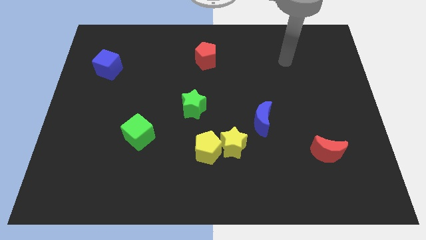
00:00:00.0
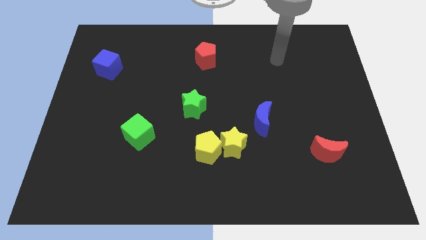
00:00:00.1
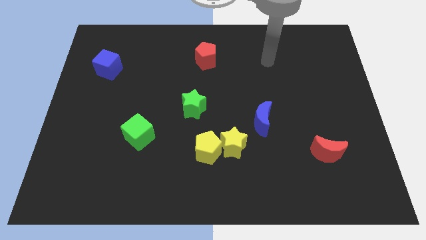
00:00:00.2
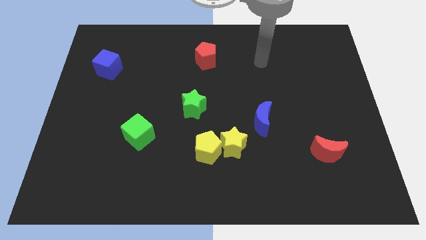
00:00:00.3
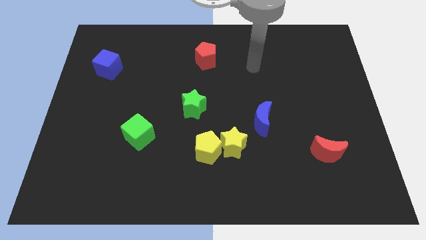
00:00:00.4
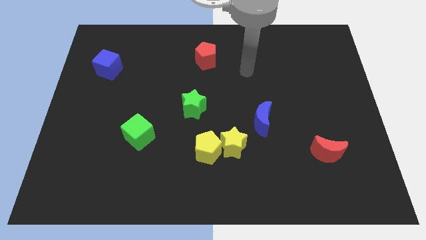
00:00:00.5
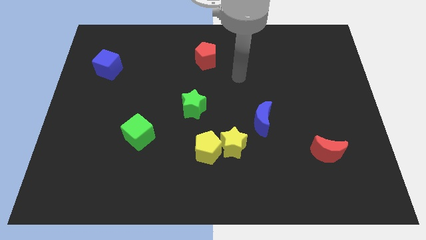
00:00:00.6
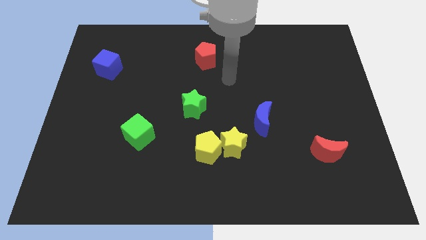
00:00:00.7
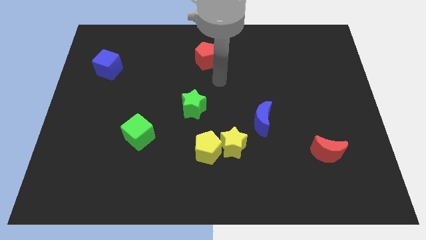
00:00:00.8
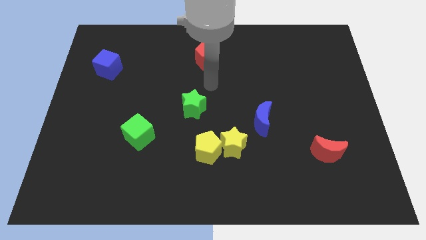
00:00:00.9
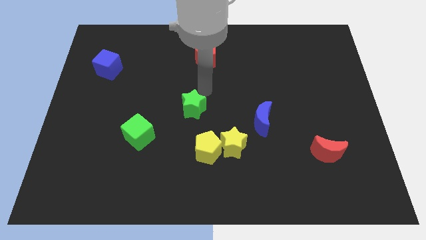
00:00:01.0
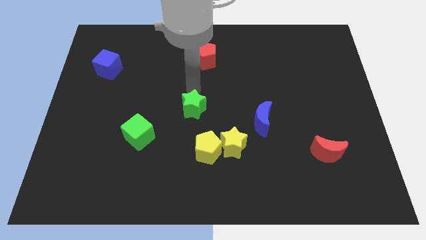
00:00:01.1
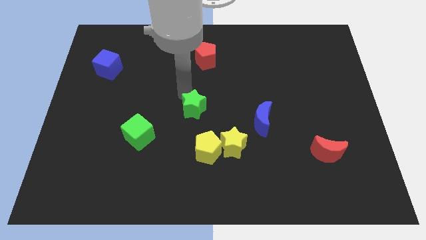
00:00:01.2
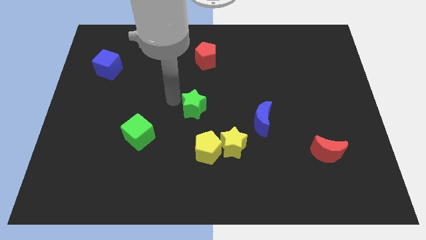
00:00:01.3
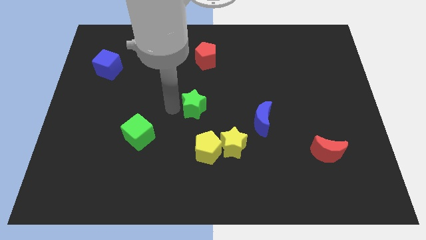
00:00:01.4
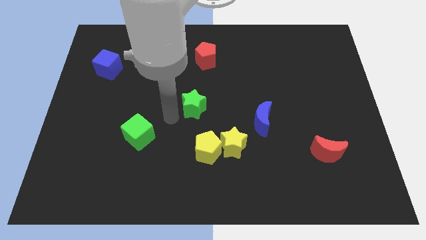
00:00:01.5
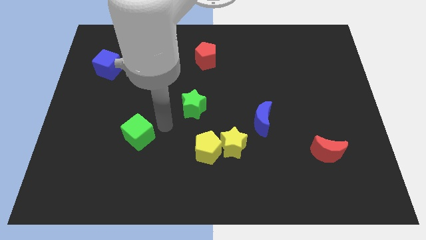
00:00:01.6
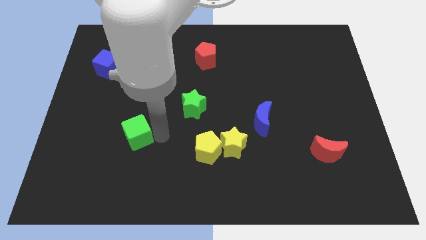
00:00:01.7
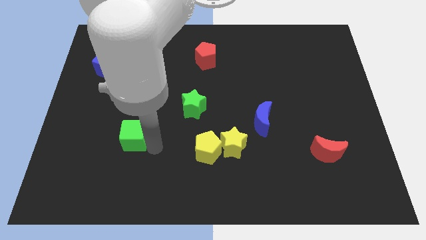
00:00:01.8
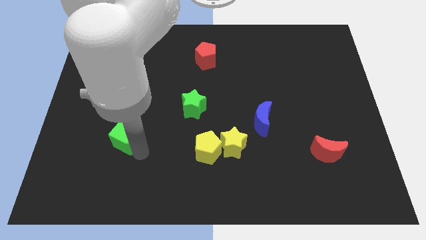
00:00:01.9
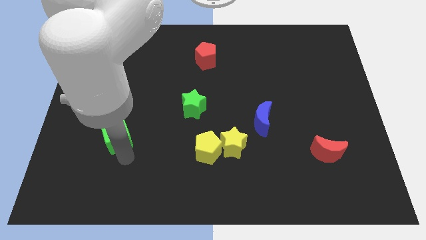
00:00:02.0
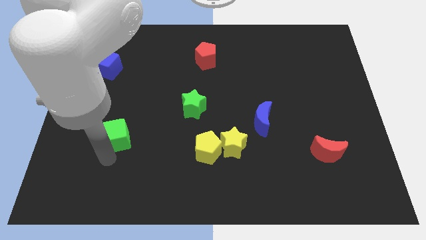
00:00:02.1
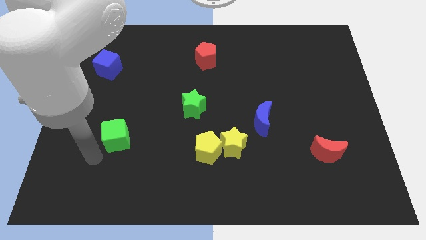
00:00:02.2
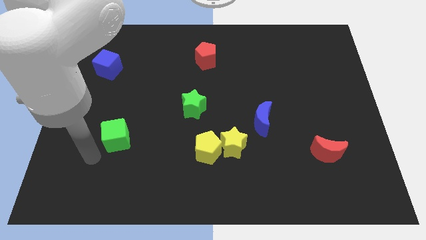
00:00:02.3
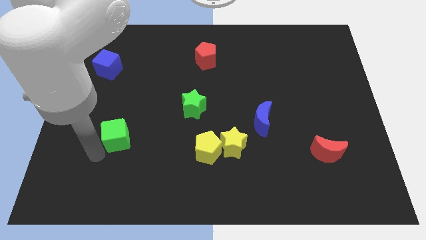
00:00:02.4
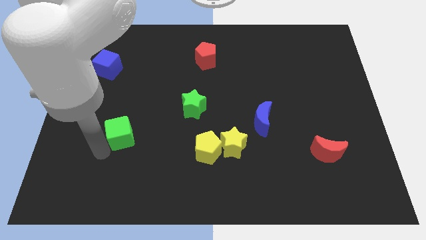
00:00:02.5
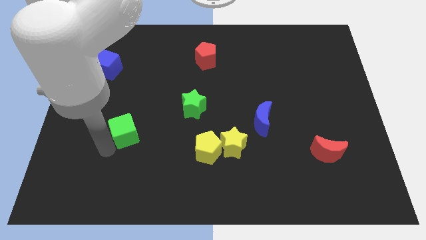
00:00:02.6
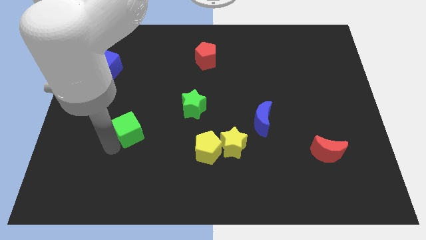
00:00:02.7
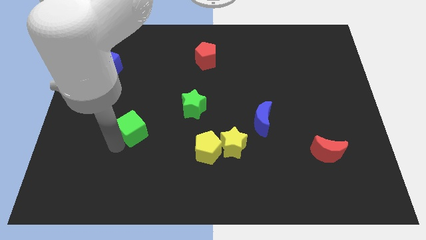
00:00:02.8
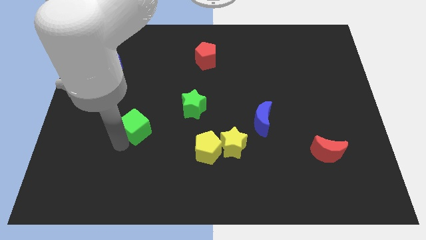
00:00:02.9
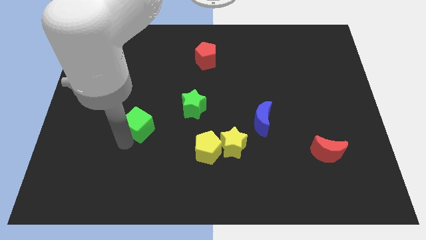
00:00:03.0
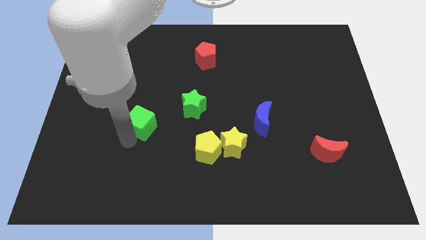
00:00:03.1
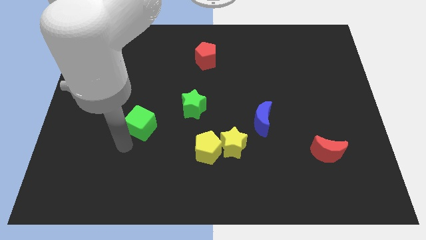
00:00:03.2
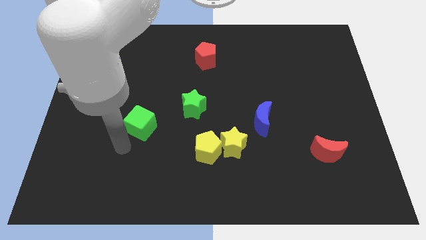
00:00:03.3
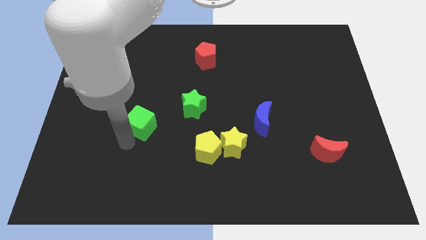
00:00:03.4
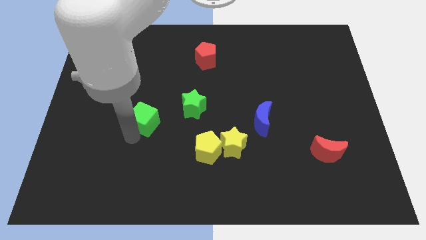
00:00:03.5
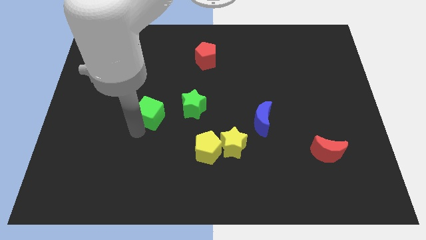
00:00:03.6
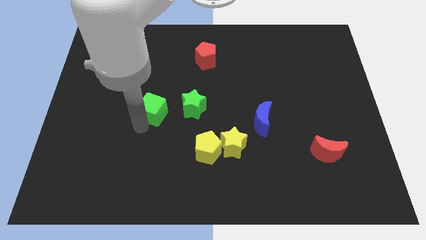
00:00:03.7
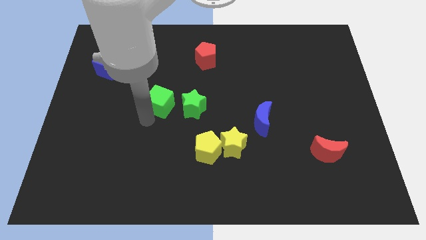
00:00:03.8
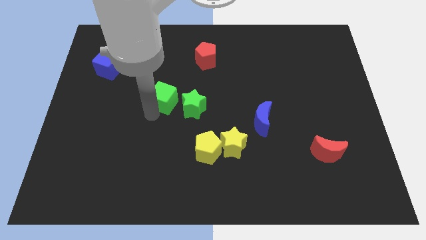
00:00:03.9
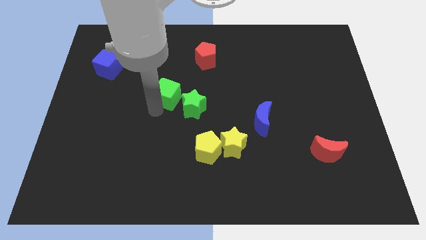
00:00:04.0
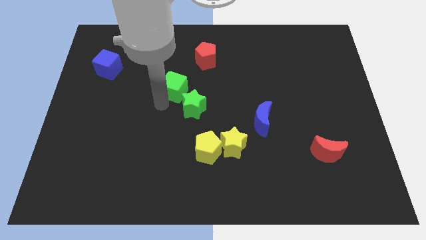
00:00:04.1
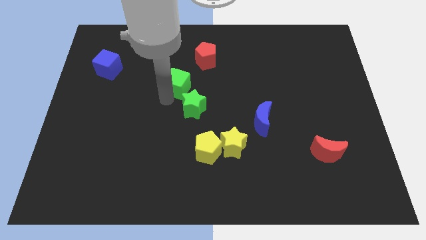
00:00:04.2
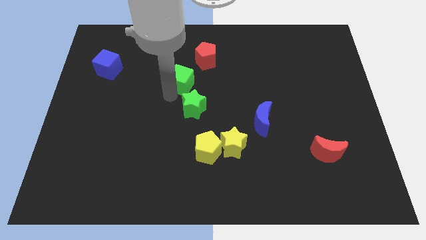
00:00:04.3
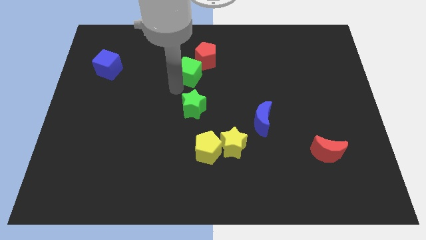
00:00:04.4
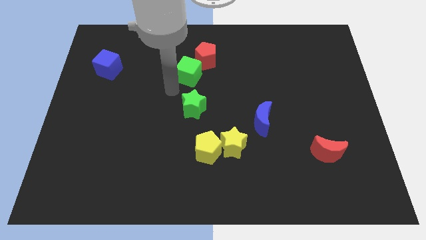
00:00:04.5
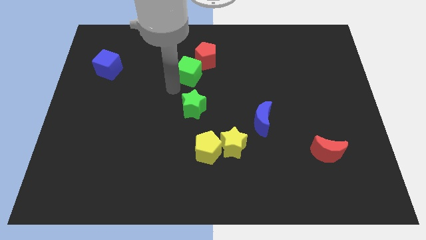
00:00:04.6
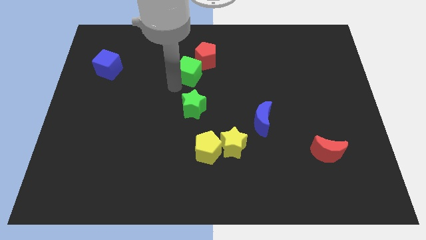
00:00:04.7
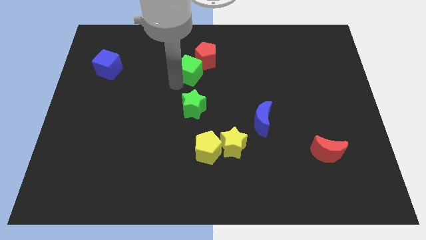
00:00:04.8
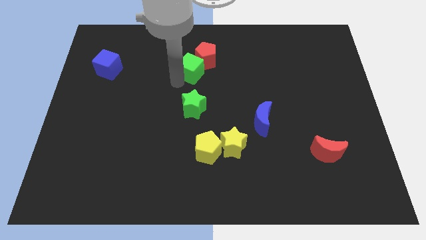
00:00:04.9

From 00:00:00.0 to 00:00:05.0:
slide the green cube close to the red pentagon
